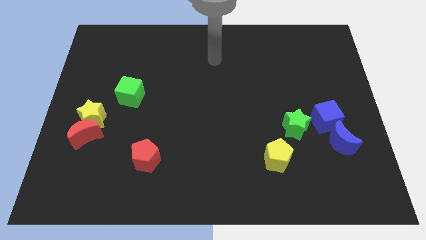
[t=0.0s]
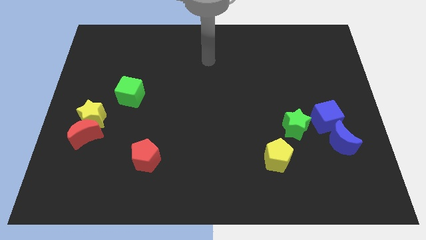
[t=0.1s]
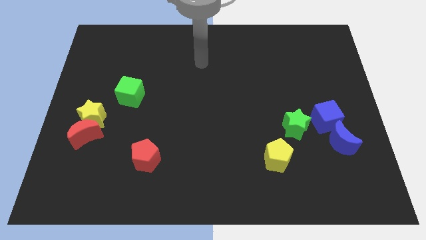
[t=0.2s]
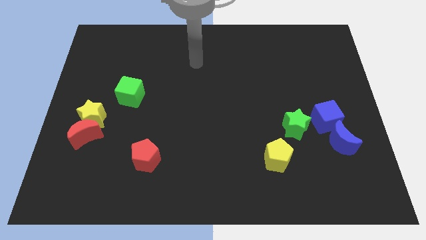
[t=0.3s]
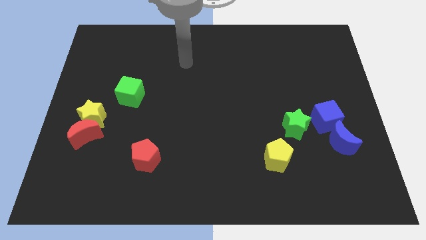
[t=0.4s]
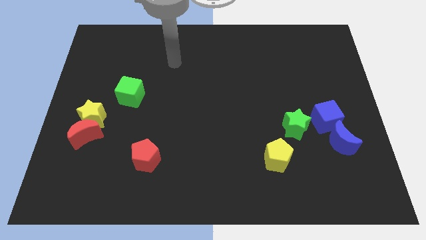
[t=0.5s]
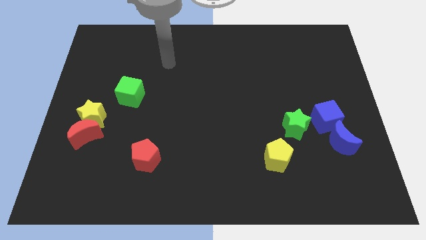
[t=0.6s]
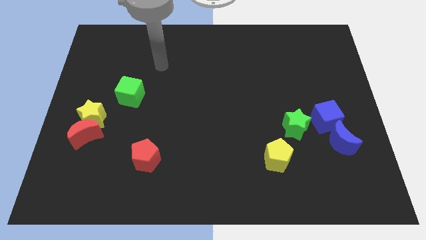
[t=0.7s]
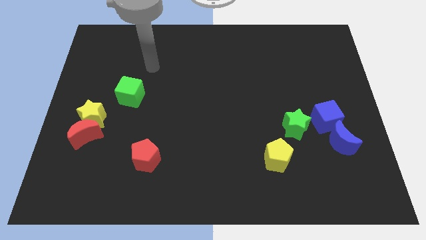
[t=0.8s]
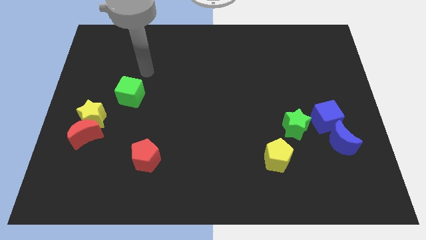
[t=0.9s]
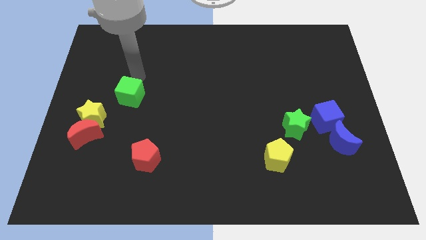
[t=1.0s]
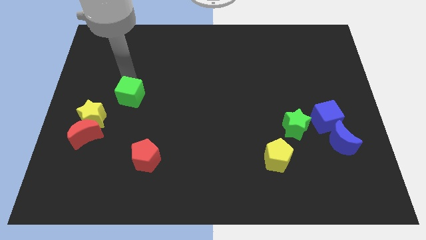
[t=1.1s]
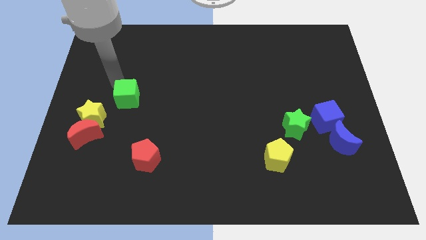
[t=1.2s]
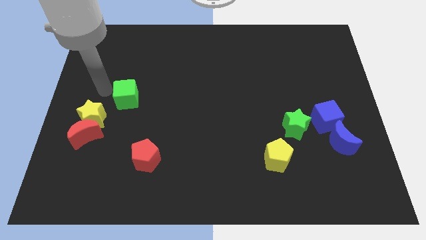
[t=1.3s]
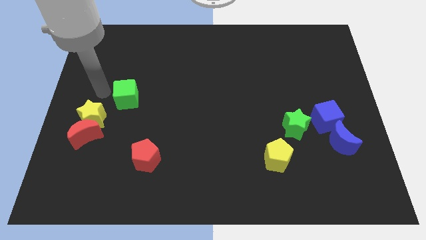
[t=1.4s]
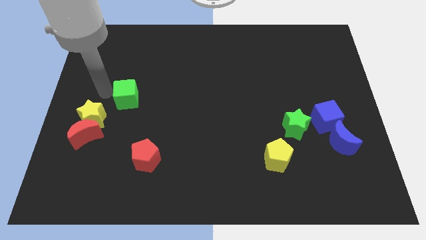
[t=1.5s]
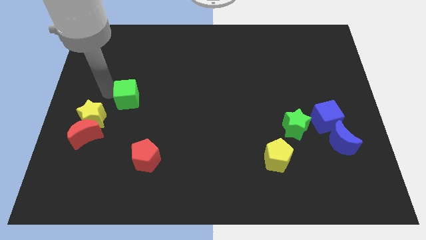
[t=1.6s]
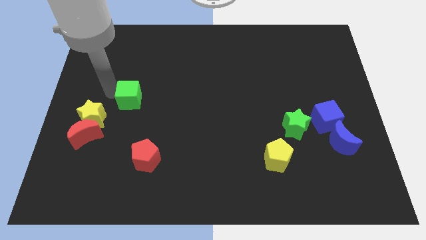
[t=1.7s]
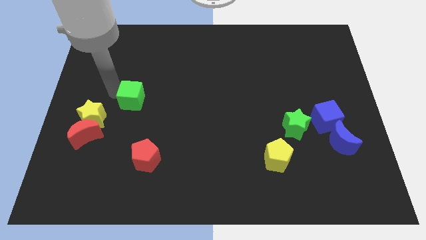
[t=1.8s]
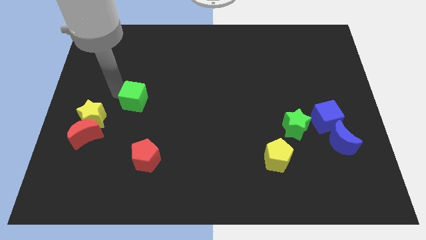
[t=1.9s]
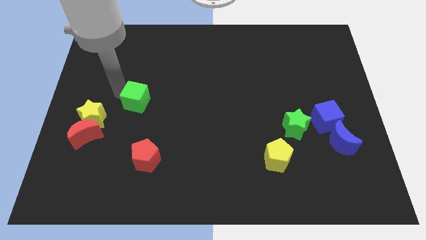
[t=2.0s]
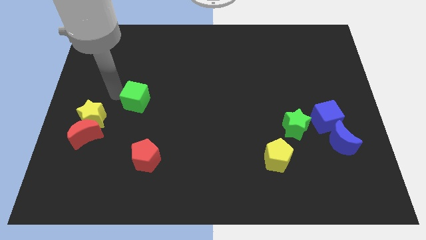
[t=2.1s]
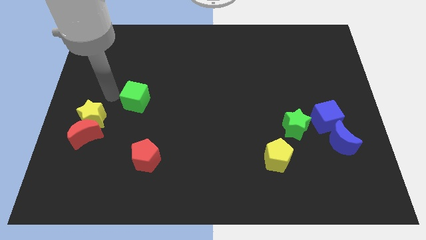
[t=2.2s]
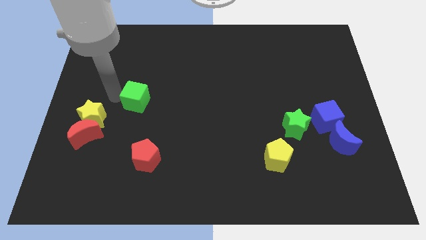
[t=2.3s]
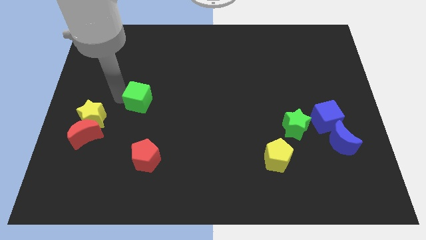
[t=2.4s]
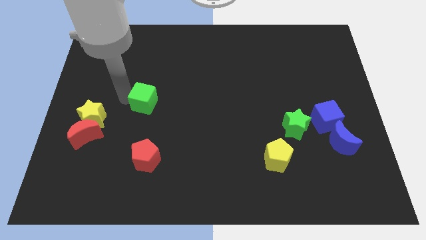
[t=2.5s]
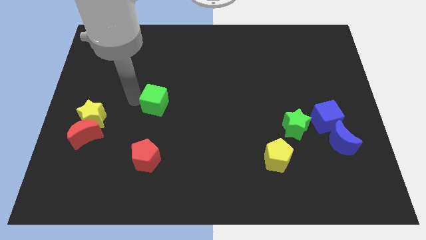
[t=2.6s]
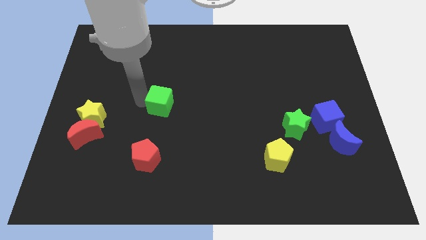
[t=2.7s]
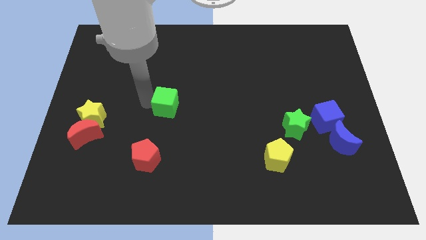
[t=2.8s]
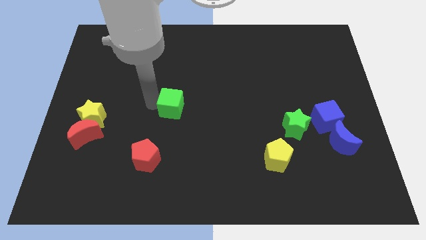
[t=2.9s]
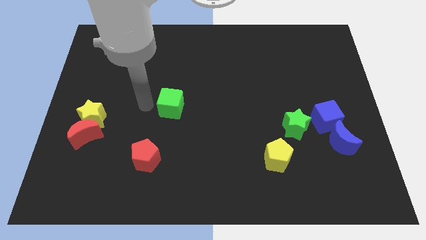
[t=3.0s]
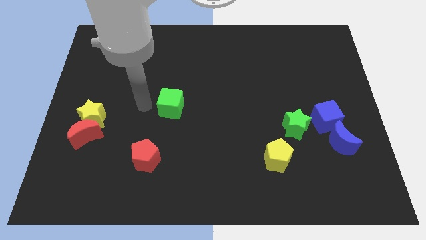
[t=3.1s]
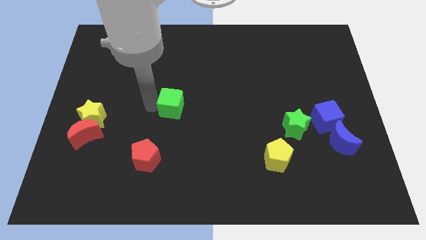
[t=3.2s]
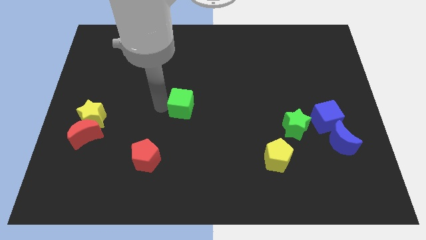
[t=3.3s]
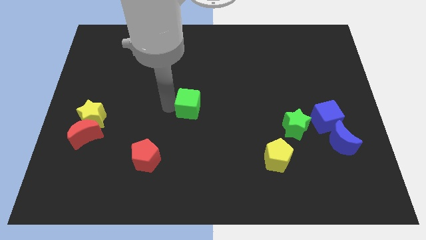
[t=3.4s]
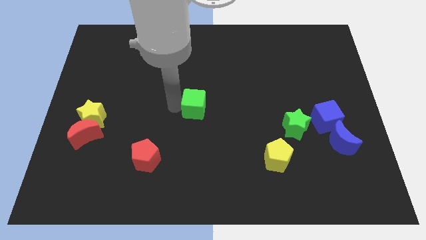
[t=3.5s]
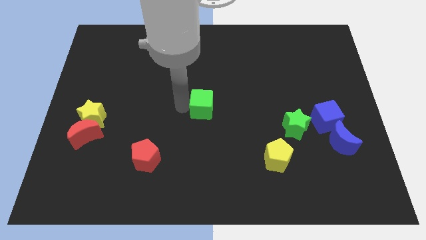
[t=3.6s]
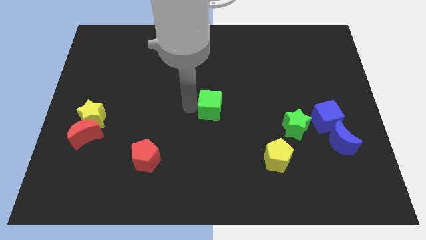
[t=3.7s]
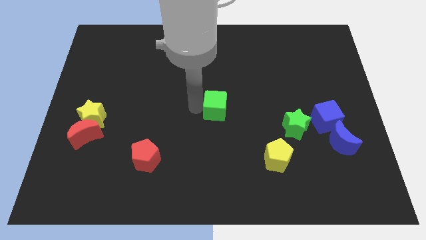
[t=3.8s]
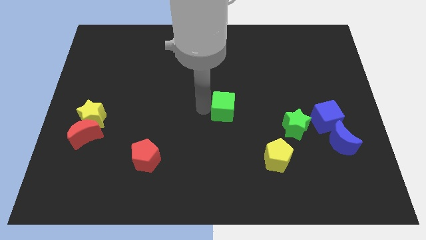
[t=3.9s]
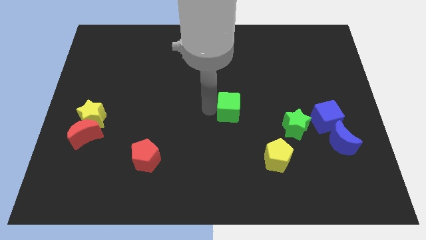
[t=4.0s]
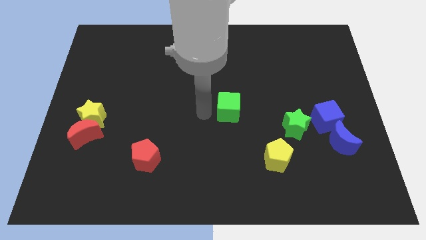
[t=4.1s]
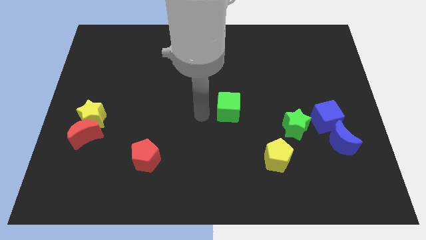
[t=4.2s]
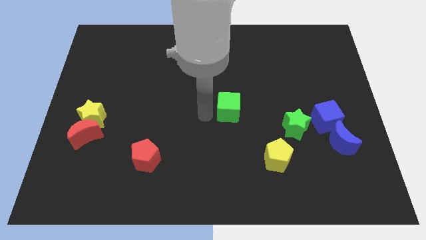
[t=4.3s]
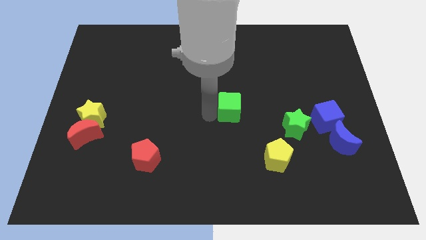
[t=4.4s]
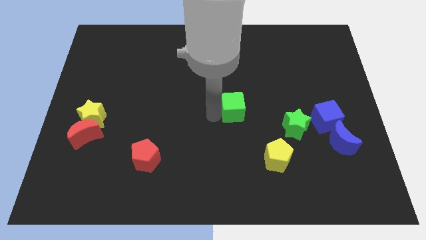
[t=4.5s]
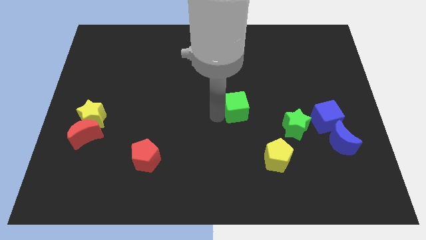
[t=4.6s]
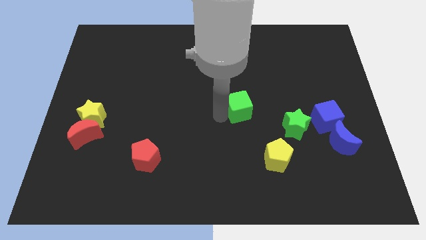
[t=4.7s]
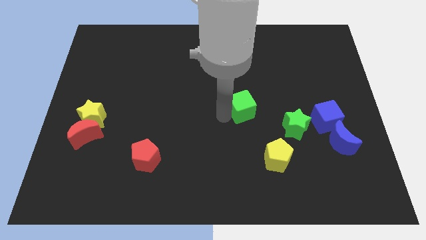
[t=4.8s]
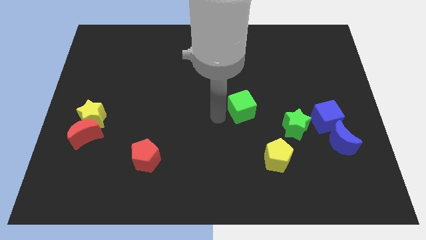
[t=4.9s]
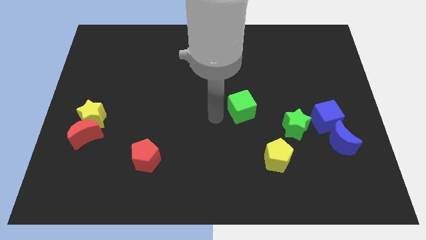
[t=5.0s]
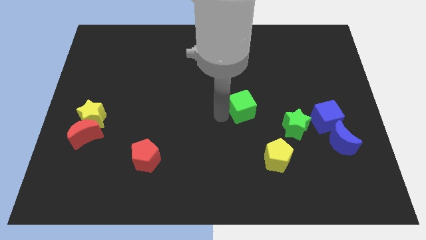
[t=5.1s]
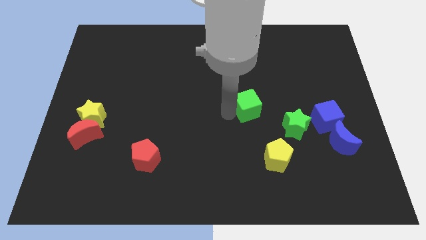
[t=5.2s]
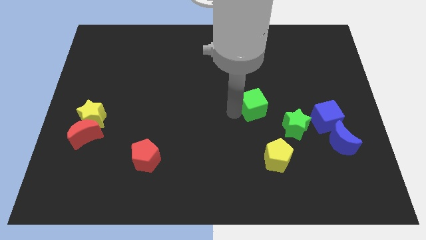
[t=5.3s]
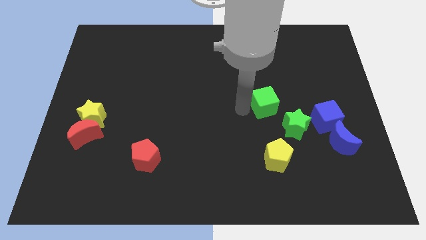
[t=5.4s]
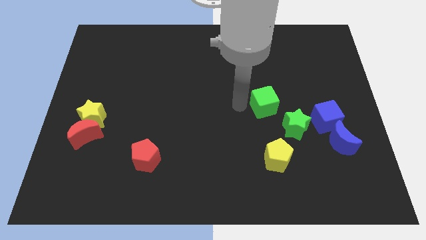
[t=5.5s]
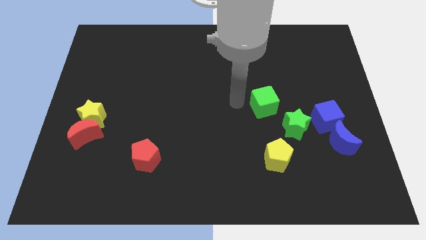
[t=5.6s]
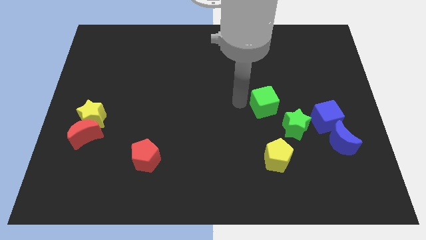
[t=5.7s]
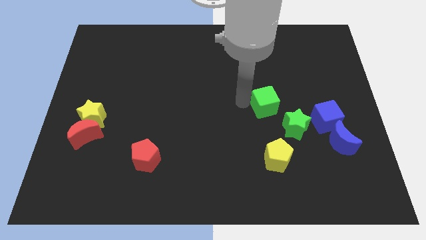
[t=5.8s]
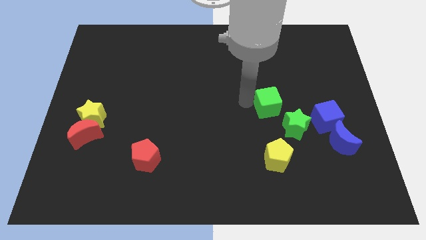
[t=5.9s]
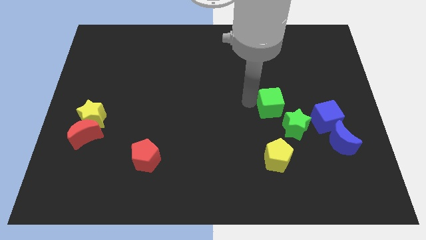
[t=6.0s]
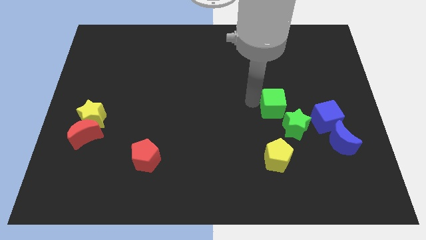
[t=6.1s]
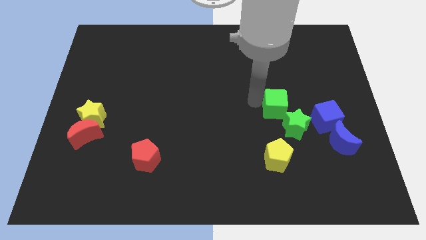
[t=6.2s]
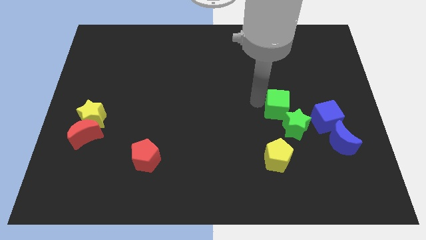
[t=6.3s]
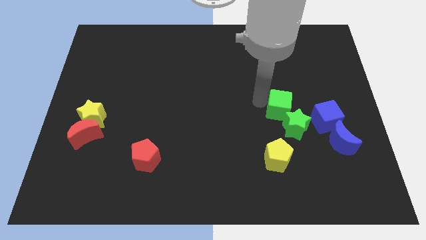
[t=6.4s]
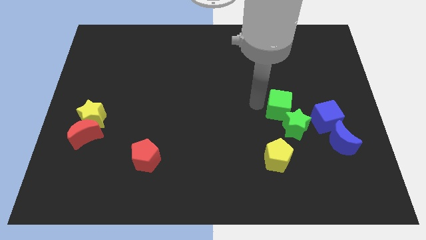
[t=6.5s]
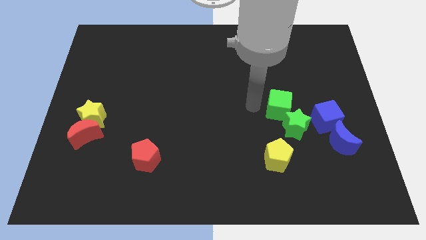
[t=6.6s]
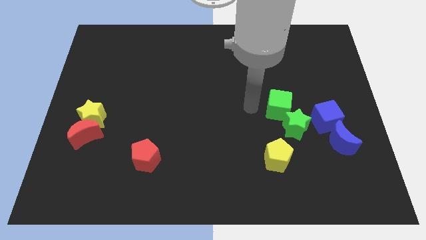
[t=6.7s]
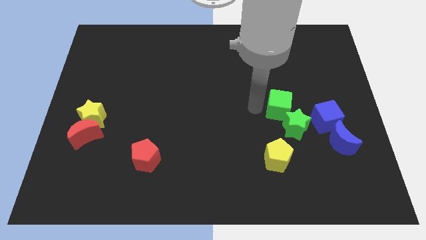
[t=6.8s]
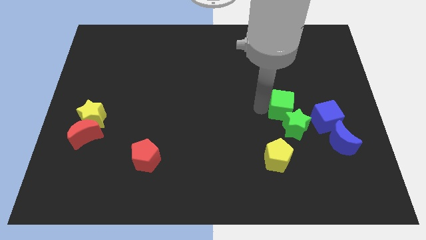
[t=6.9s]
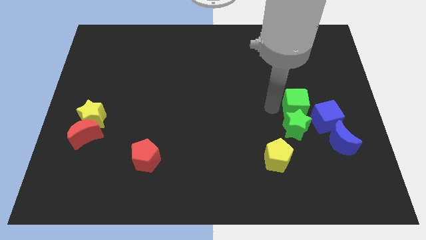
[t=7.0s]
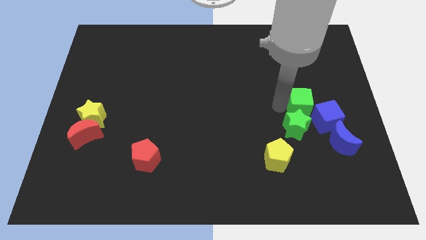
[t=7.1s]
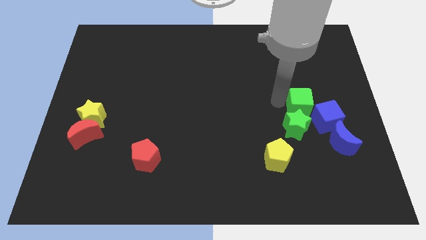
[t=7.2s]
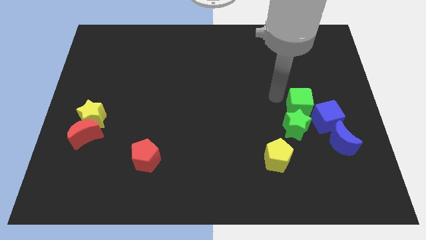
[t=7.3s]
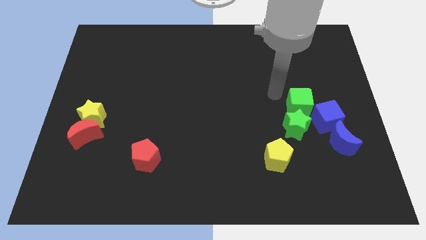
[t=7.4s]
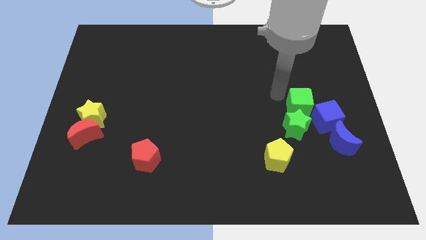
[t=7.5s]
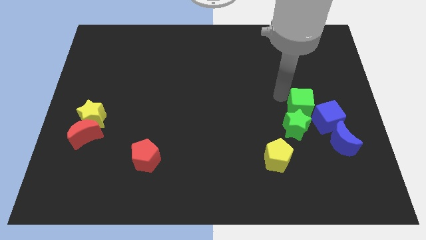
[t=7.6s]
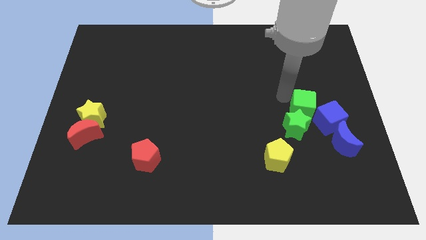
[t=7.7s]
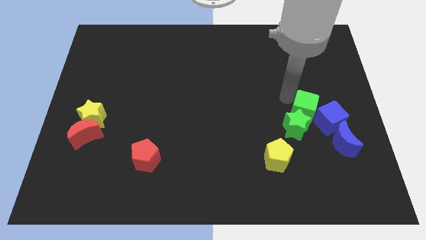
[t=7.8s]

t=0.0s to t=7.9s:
move the green cube towards the blue cube
